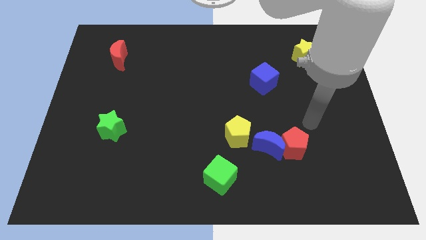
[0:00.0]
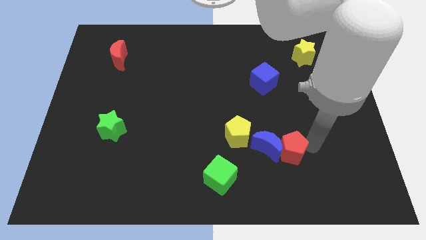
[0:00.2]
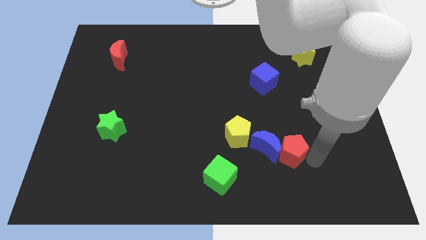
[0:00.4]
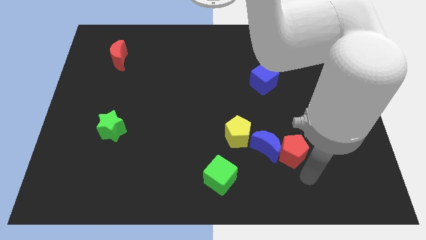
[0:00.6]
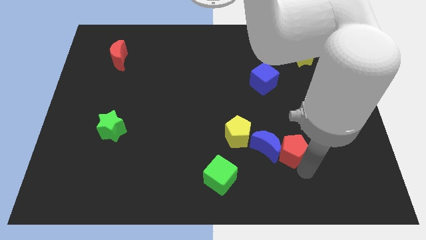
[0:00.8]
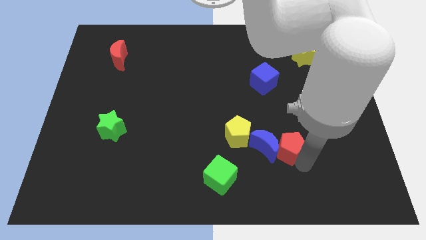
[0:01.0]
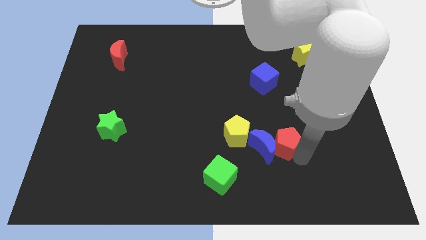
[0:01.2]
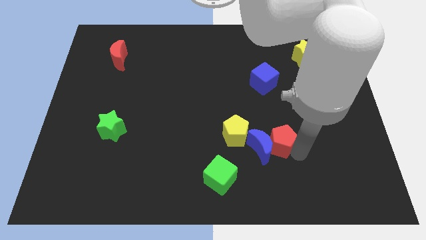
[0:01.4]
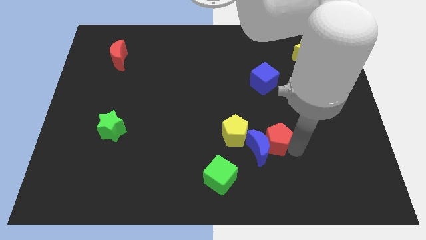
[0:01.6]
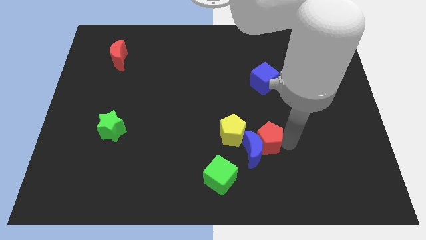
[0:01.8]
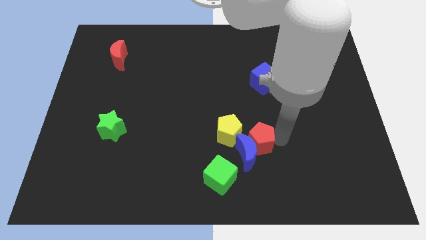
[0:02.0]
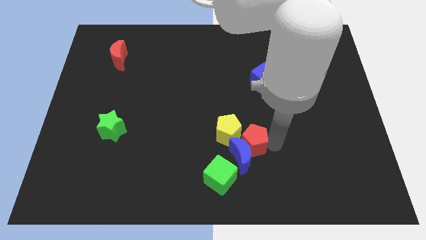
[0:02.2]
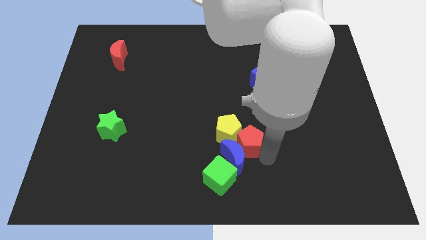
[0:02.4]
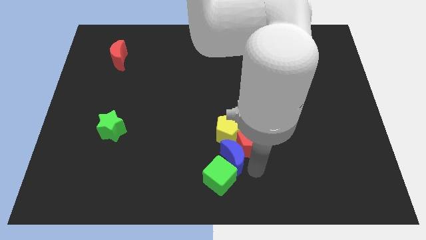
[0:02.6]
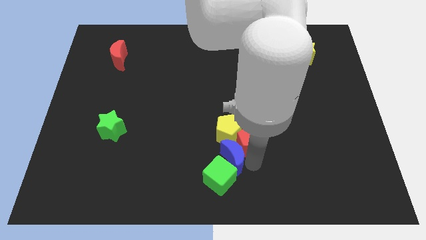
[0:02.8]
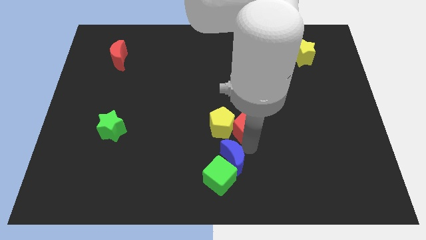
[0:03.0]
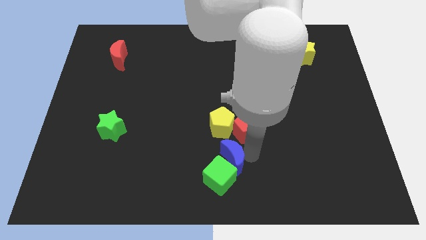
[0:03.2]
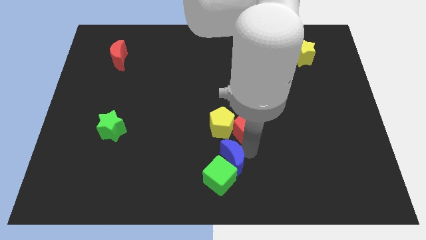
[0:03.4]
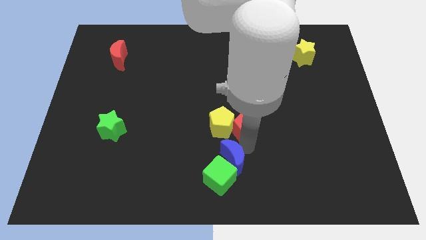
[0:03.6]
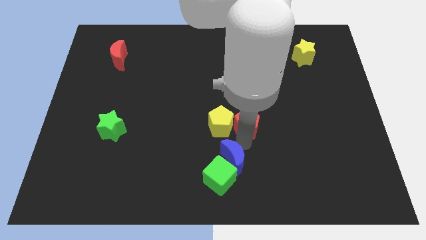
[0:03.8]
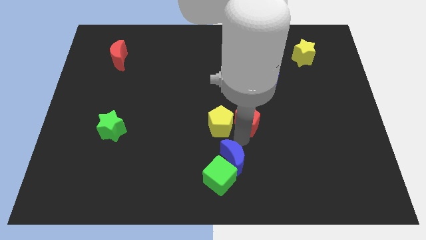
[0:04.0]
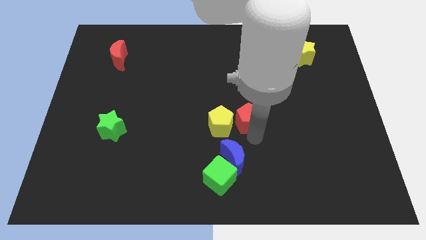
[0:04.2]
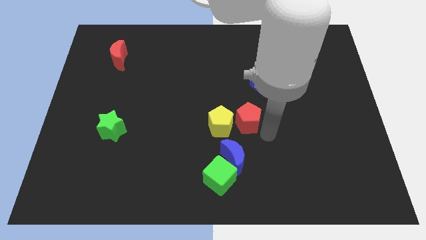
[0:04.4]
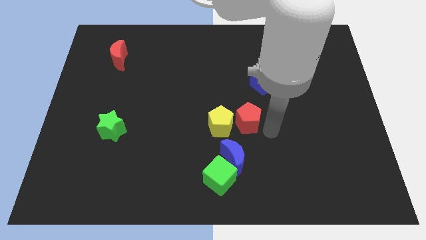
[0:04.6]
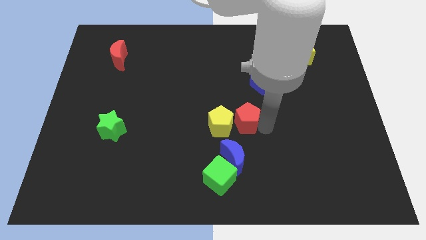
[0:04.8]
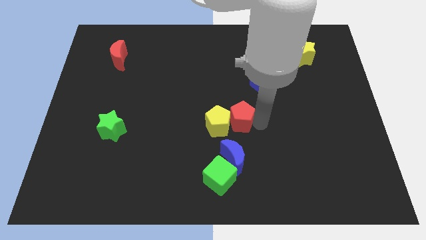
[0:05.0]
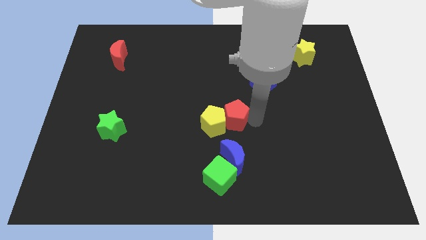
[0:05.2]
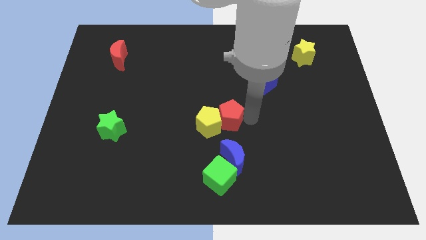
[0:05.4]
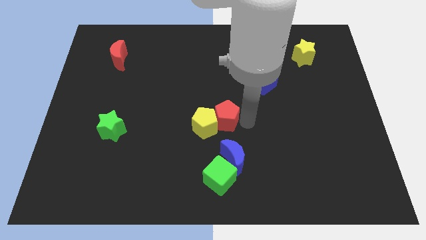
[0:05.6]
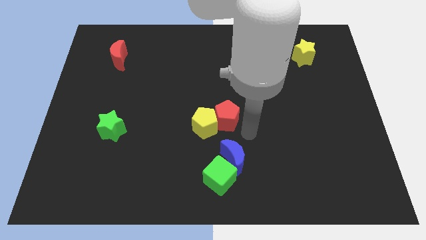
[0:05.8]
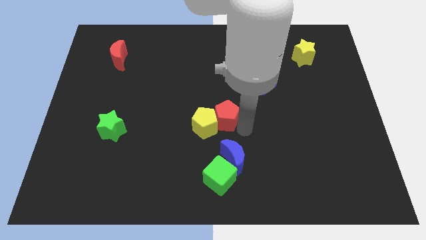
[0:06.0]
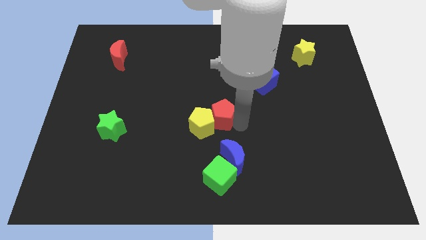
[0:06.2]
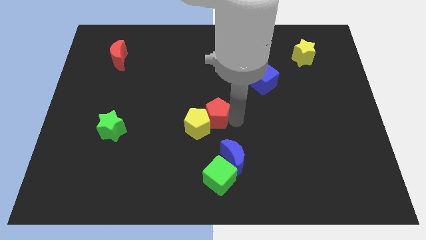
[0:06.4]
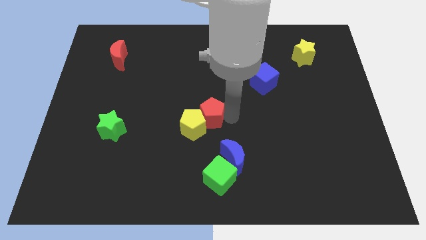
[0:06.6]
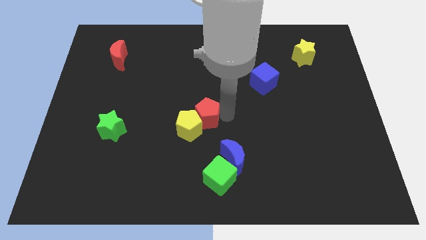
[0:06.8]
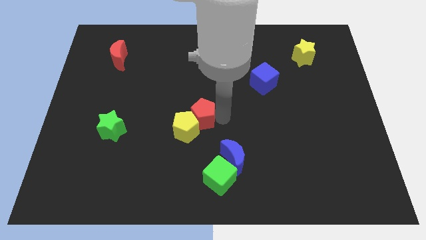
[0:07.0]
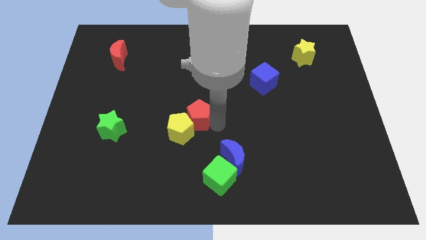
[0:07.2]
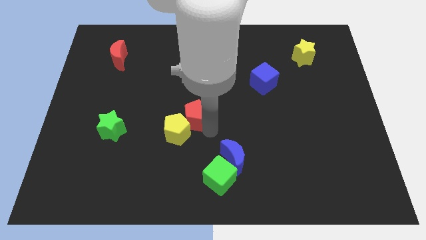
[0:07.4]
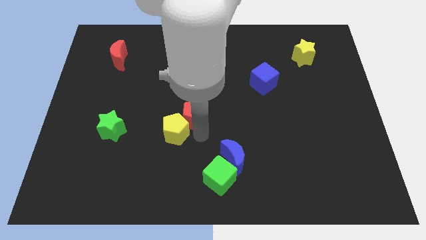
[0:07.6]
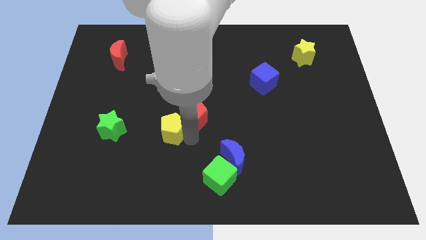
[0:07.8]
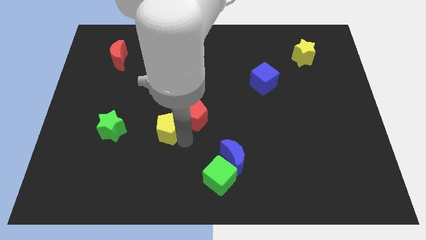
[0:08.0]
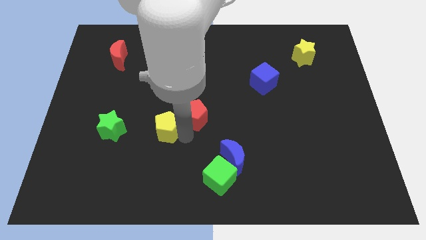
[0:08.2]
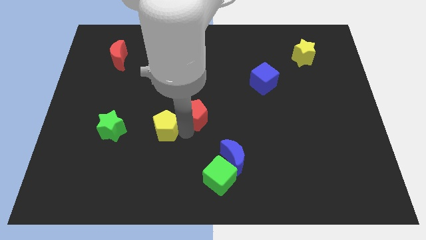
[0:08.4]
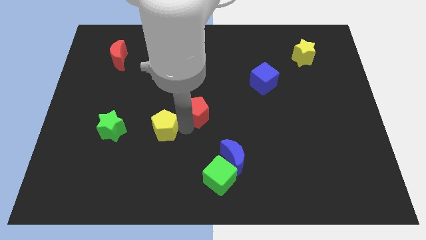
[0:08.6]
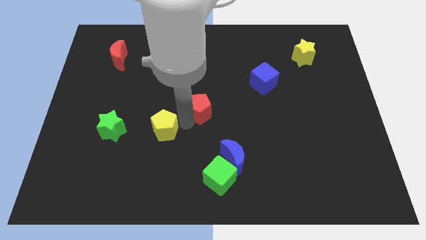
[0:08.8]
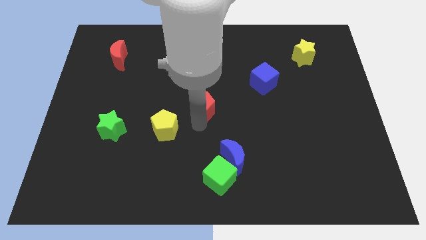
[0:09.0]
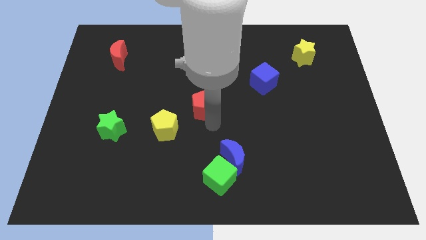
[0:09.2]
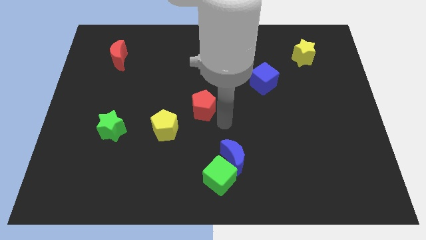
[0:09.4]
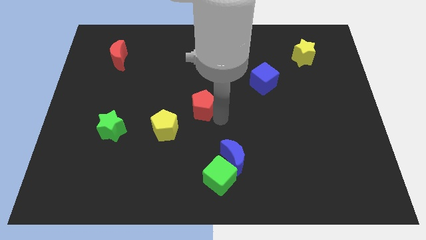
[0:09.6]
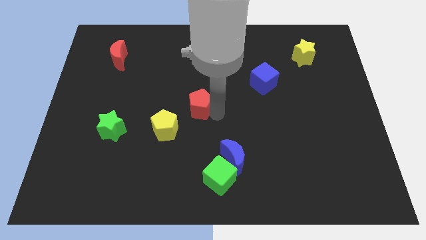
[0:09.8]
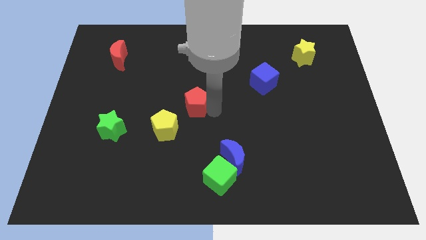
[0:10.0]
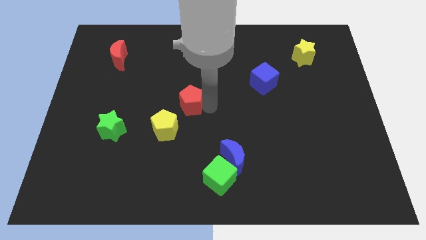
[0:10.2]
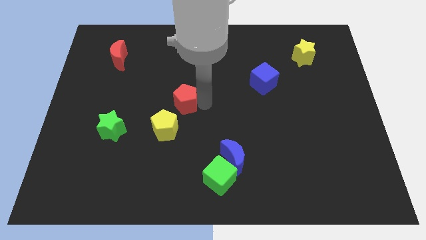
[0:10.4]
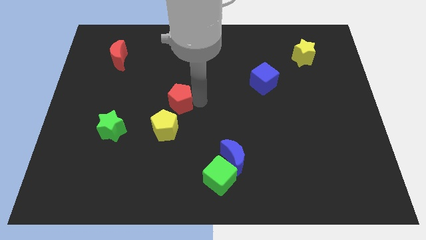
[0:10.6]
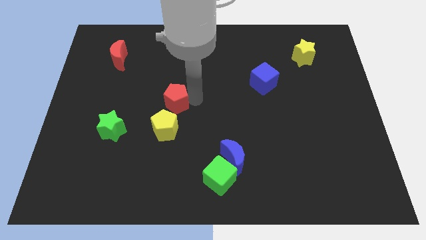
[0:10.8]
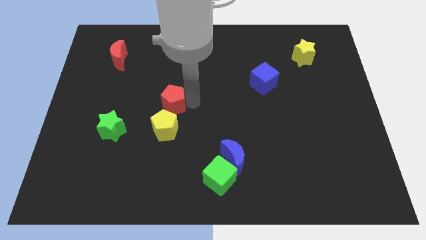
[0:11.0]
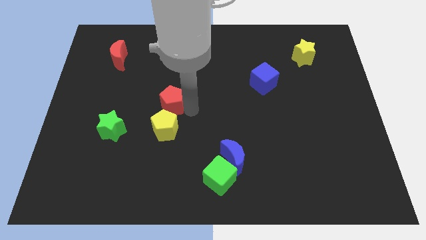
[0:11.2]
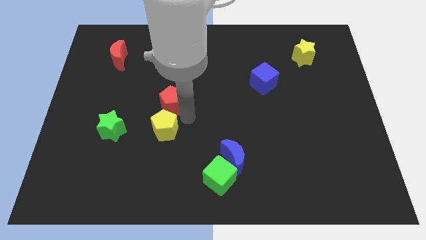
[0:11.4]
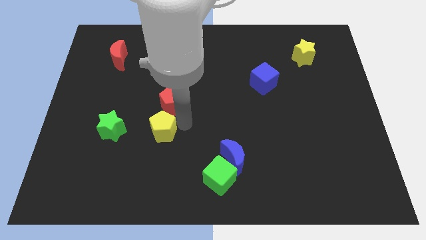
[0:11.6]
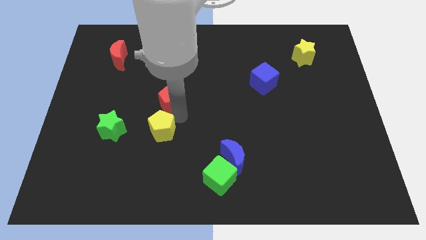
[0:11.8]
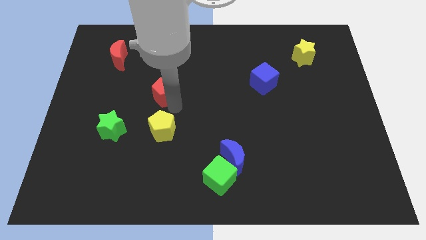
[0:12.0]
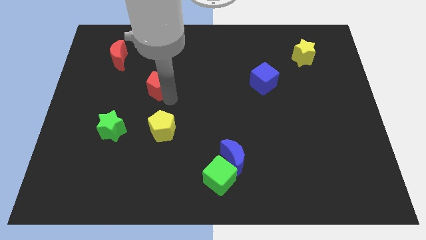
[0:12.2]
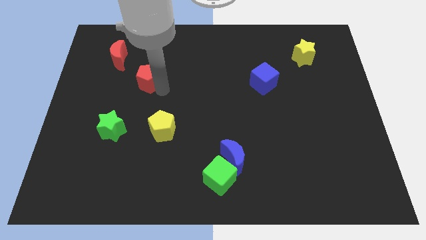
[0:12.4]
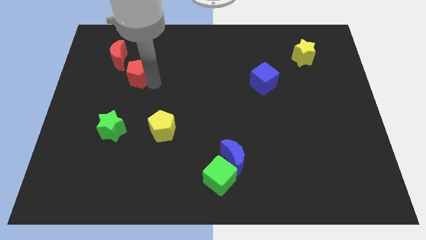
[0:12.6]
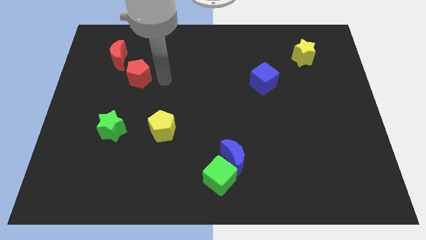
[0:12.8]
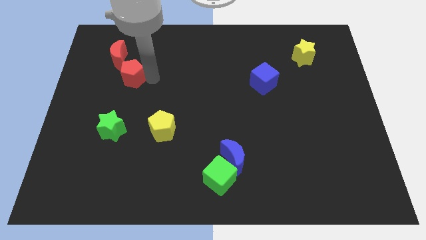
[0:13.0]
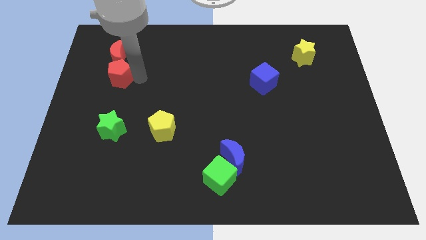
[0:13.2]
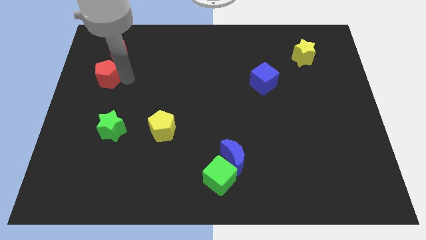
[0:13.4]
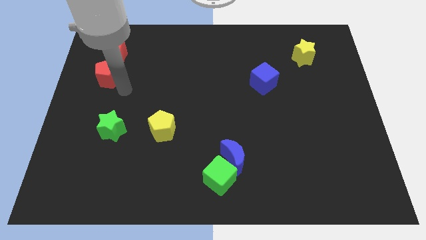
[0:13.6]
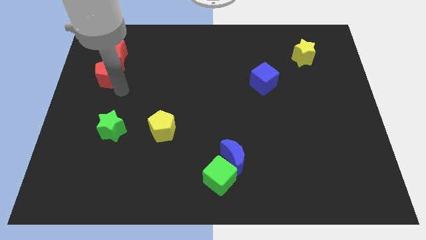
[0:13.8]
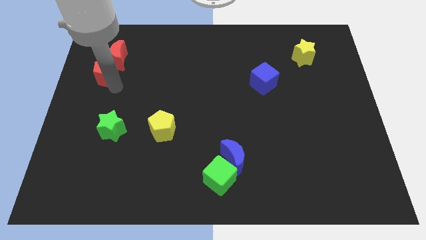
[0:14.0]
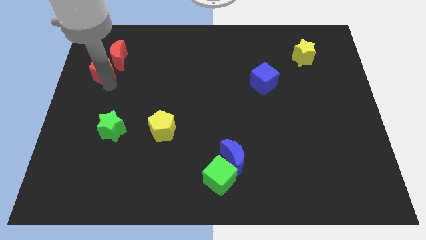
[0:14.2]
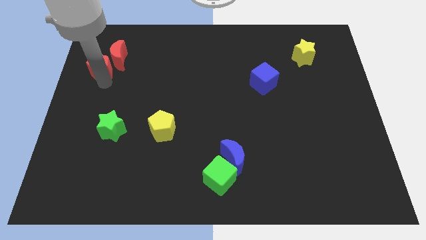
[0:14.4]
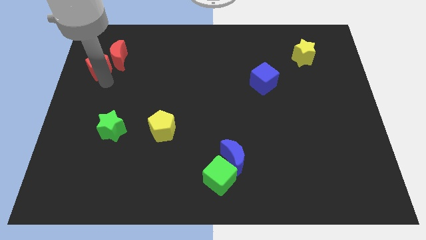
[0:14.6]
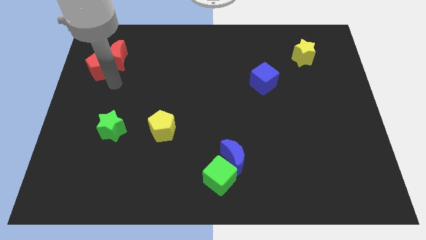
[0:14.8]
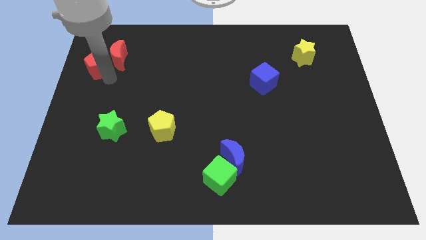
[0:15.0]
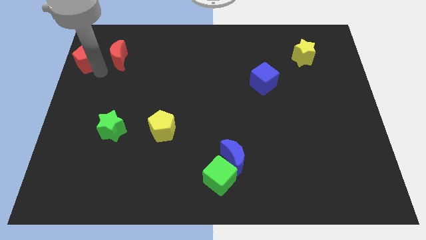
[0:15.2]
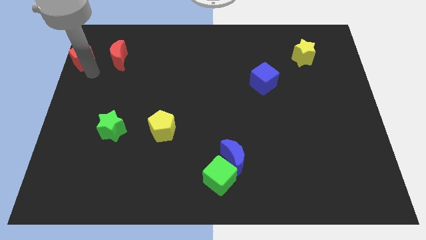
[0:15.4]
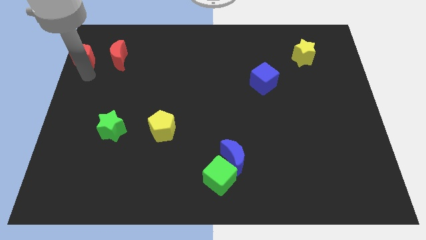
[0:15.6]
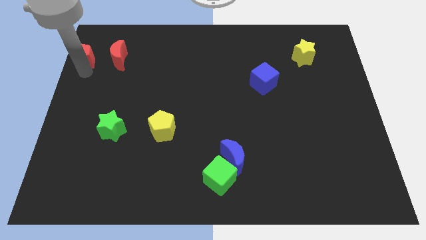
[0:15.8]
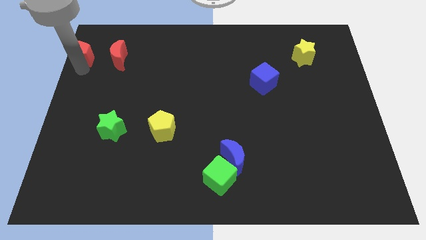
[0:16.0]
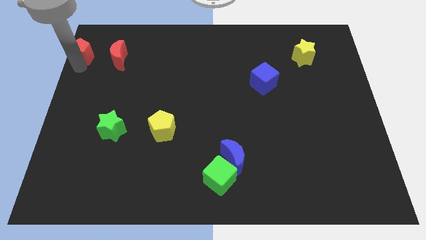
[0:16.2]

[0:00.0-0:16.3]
push the red pentagon to the top left of the board
